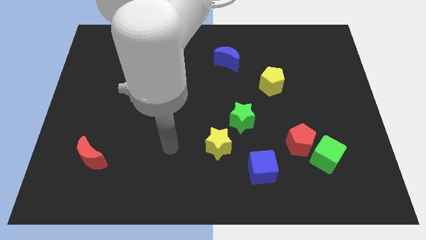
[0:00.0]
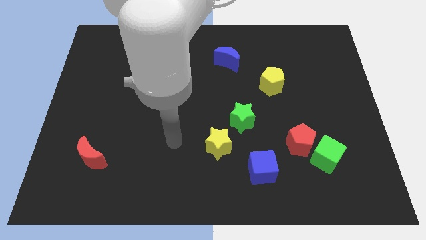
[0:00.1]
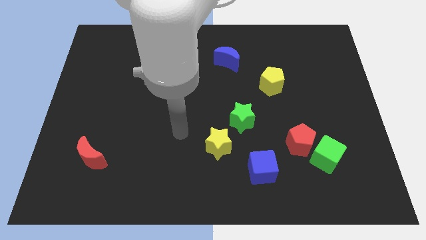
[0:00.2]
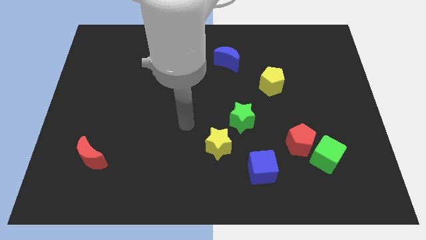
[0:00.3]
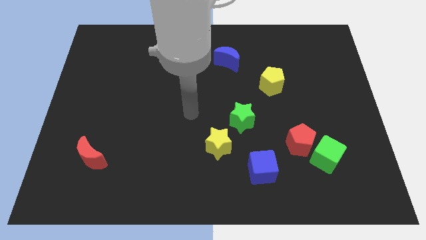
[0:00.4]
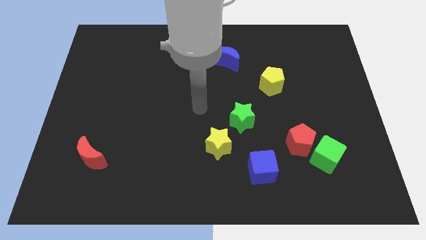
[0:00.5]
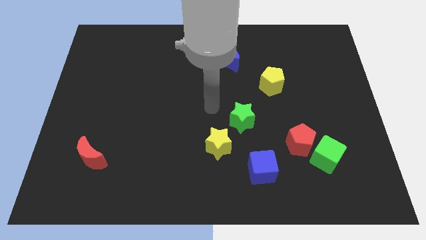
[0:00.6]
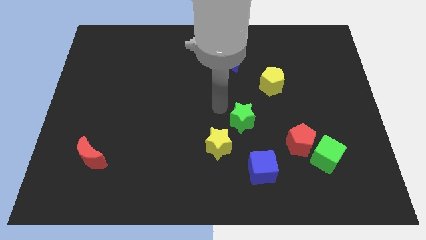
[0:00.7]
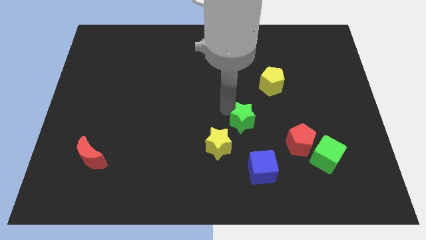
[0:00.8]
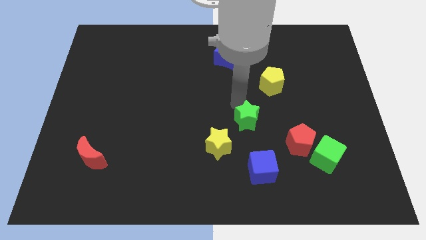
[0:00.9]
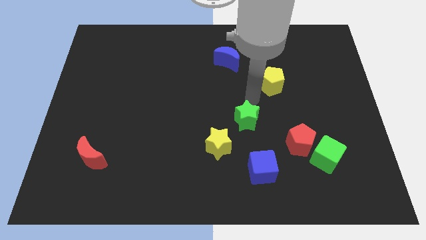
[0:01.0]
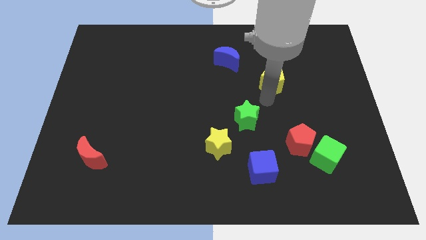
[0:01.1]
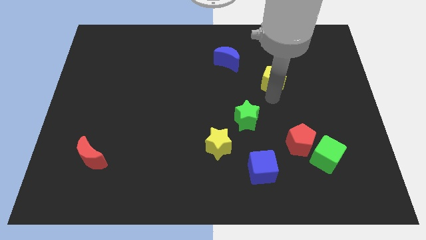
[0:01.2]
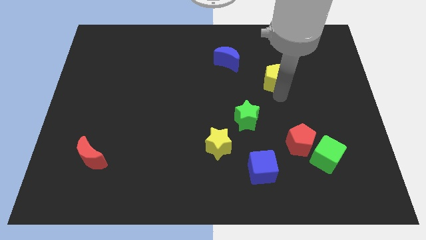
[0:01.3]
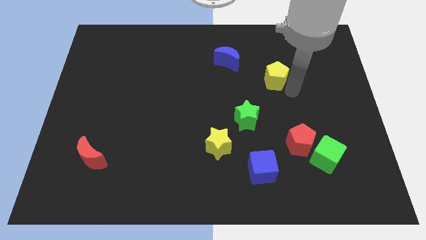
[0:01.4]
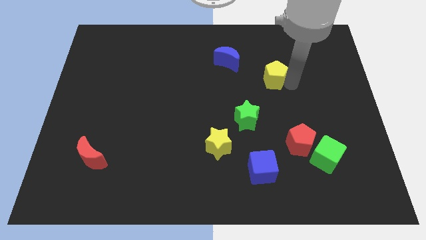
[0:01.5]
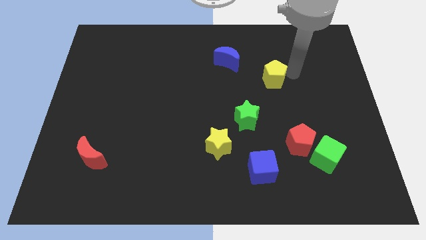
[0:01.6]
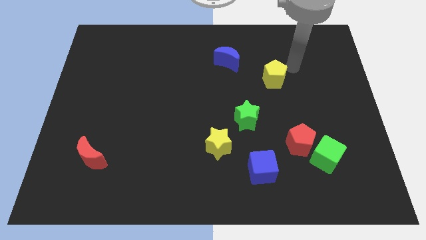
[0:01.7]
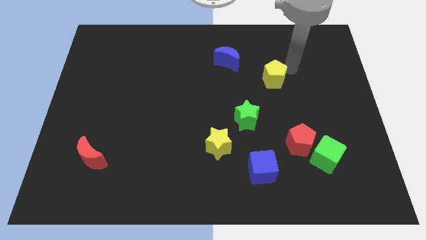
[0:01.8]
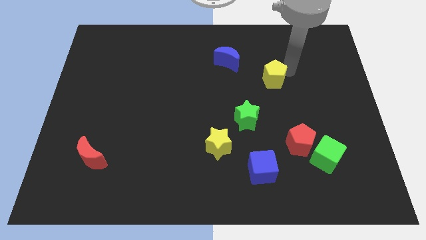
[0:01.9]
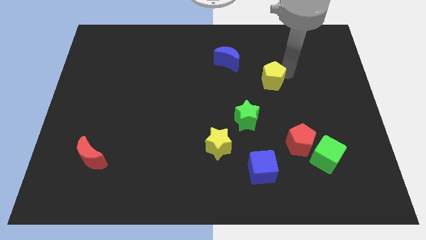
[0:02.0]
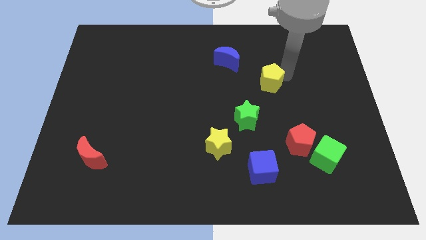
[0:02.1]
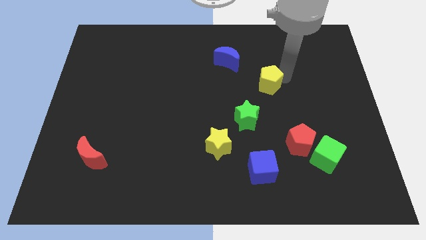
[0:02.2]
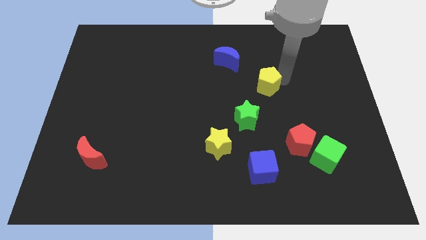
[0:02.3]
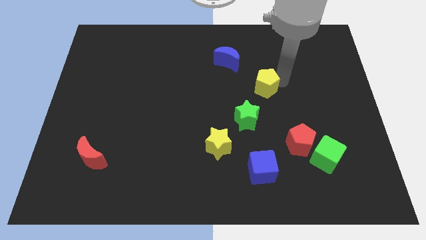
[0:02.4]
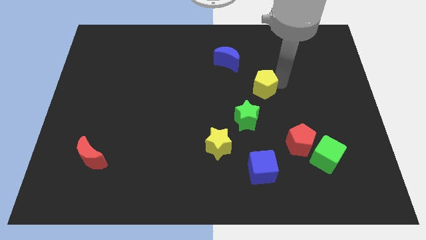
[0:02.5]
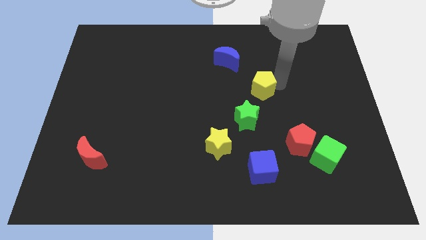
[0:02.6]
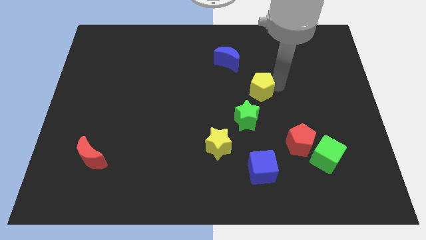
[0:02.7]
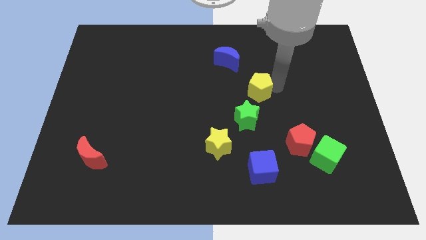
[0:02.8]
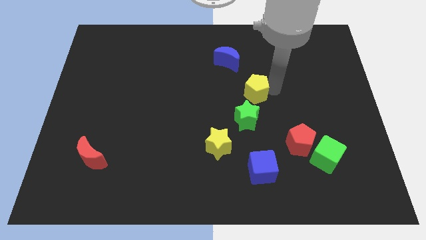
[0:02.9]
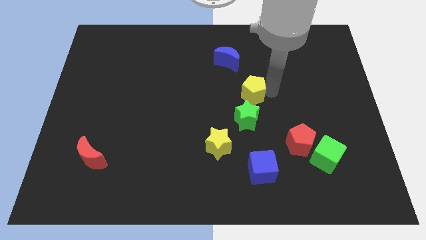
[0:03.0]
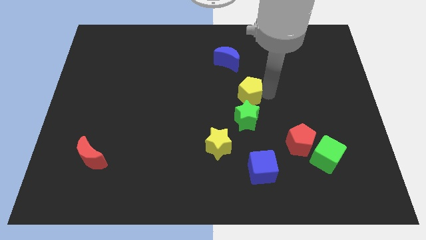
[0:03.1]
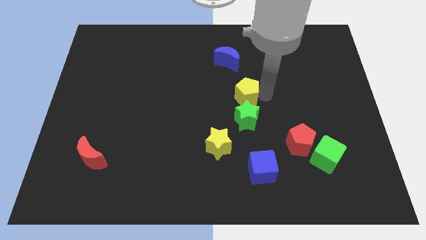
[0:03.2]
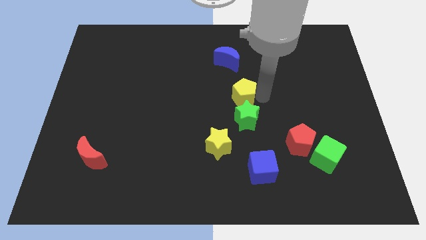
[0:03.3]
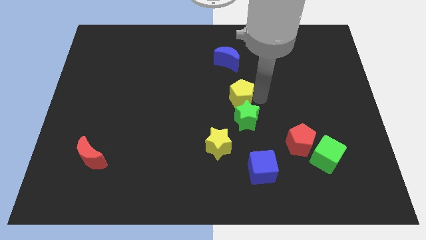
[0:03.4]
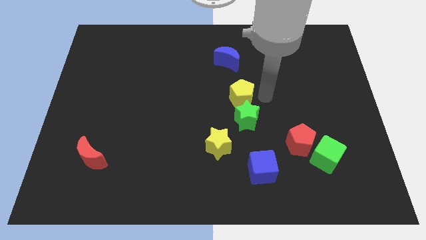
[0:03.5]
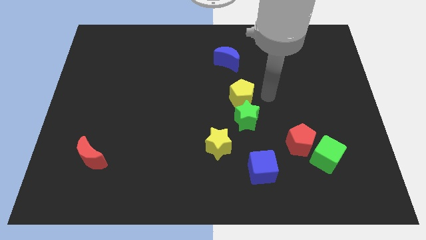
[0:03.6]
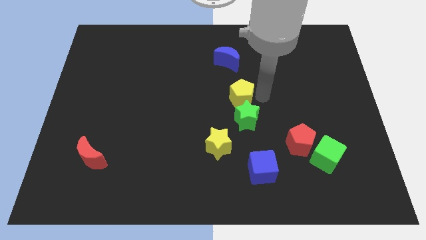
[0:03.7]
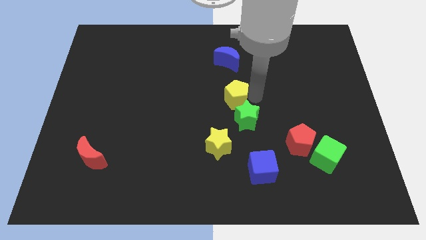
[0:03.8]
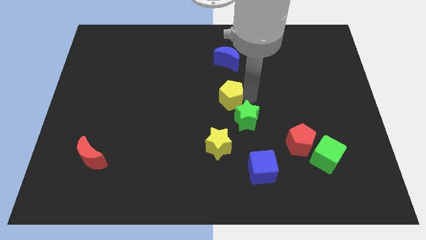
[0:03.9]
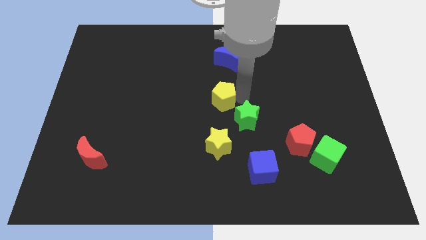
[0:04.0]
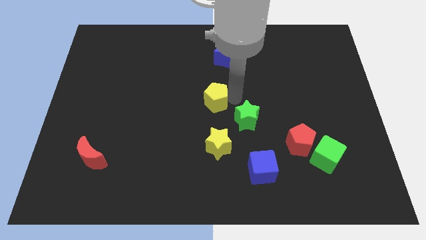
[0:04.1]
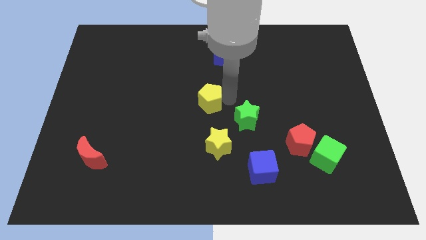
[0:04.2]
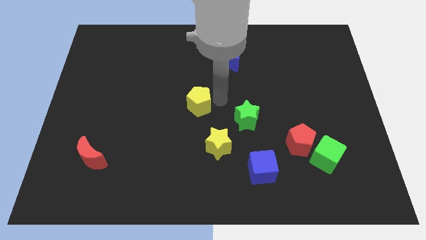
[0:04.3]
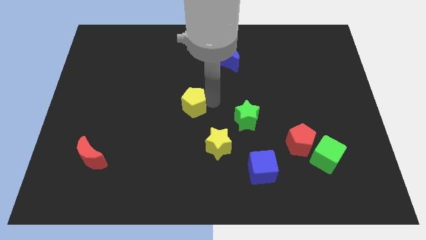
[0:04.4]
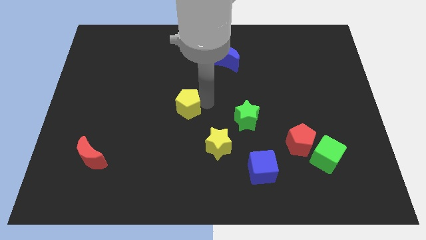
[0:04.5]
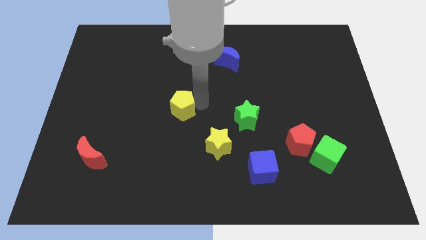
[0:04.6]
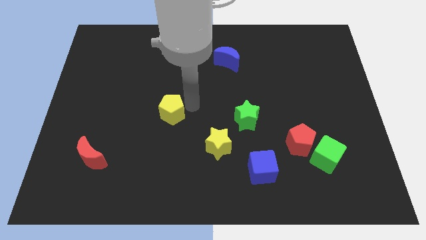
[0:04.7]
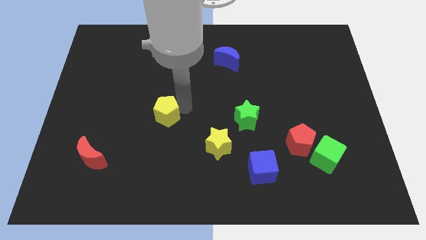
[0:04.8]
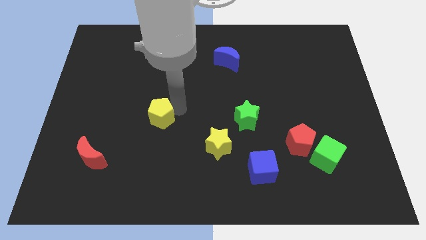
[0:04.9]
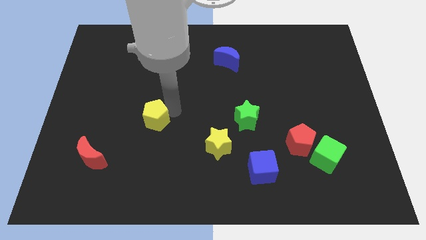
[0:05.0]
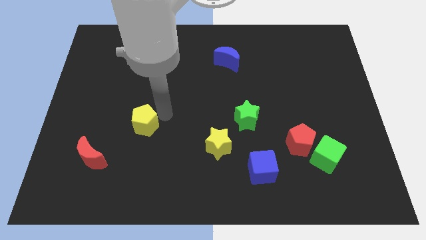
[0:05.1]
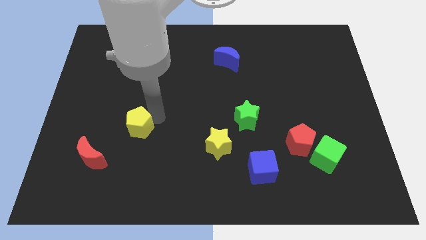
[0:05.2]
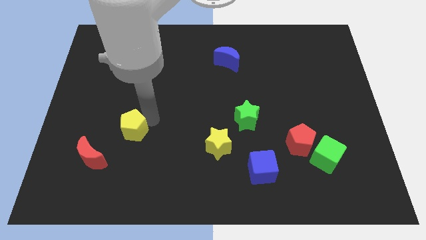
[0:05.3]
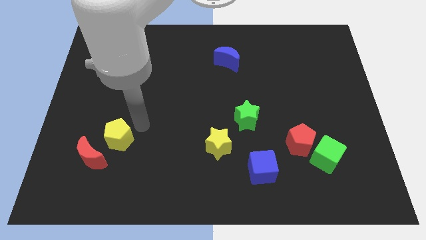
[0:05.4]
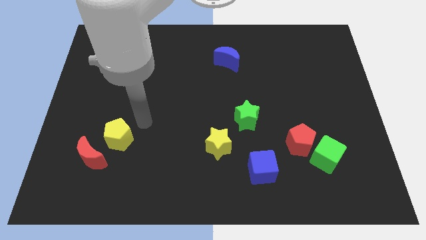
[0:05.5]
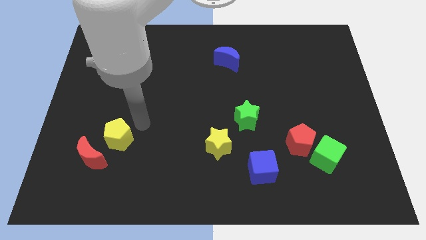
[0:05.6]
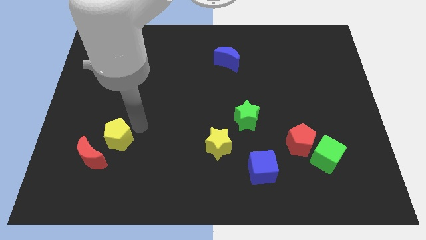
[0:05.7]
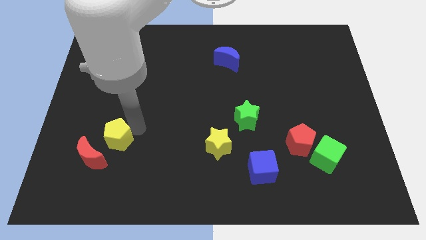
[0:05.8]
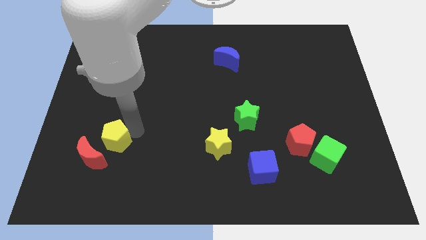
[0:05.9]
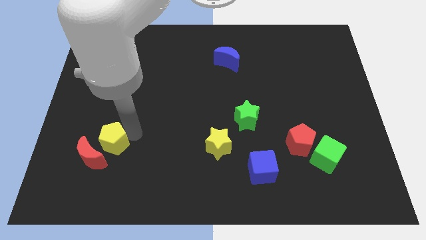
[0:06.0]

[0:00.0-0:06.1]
put the yellow pentagon to the red moon

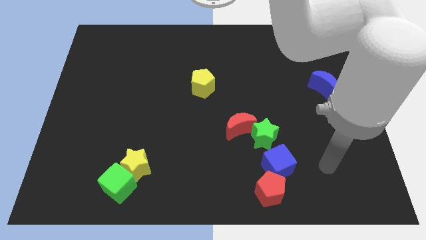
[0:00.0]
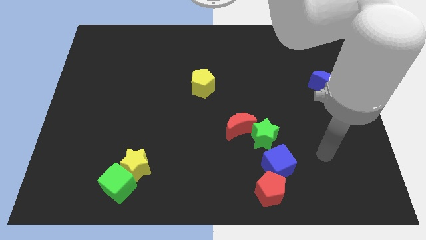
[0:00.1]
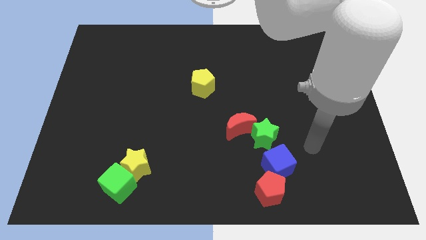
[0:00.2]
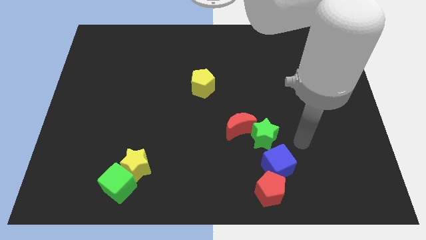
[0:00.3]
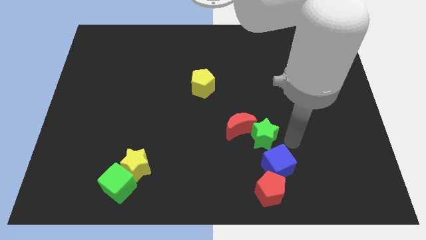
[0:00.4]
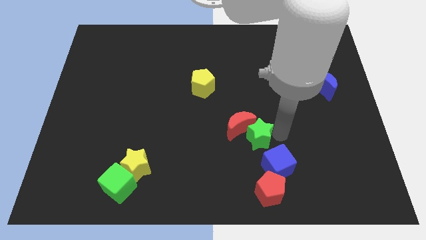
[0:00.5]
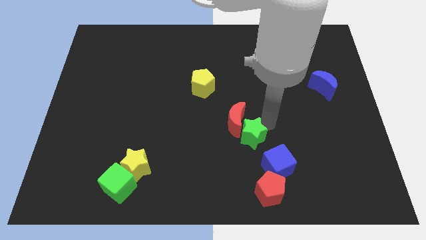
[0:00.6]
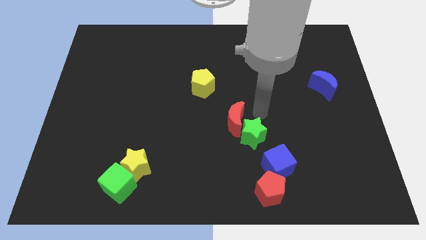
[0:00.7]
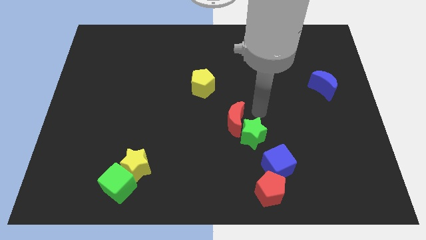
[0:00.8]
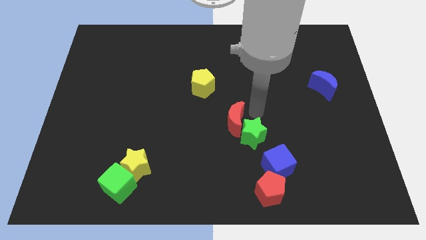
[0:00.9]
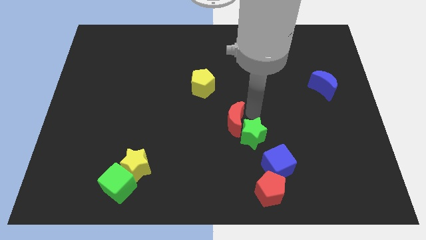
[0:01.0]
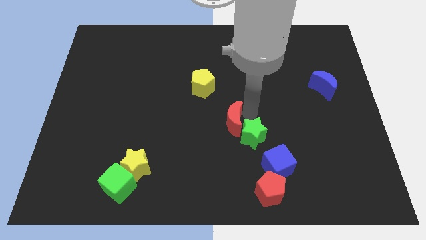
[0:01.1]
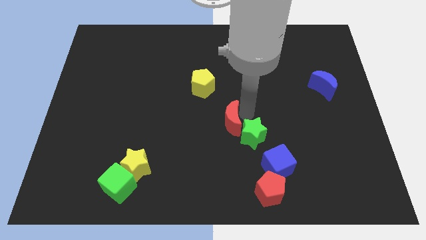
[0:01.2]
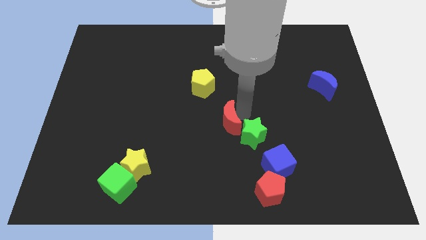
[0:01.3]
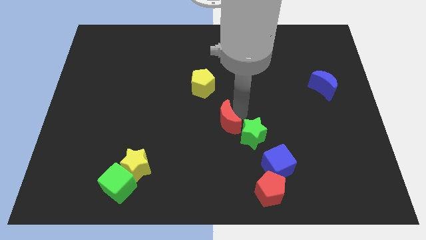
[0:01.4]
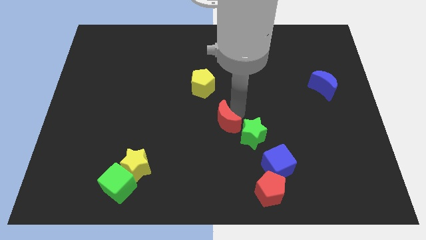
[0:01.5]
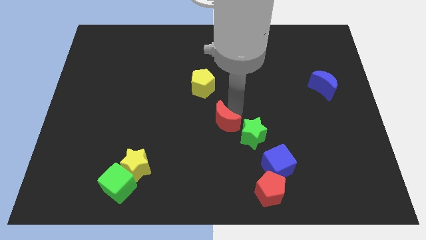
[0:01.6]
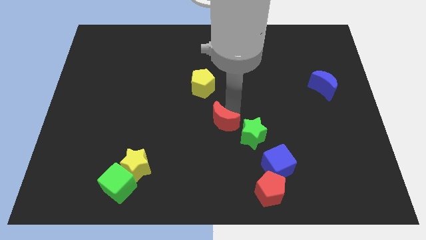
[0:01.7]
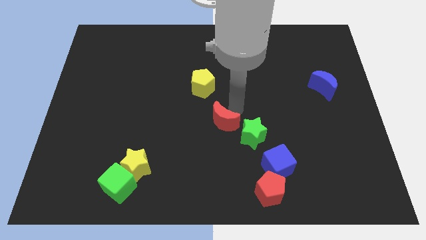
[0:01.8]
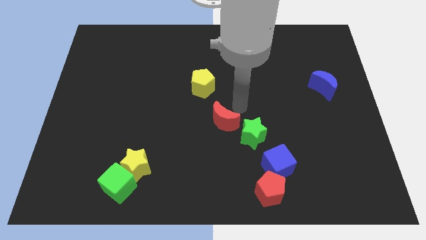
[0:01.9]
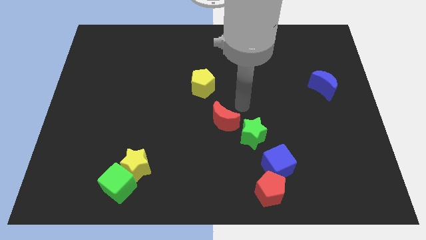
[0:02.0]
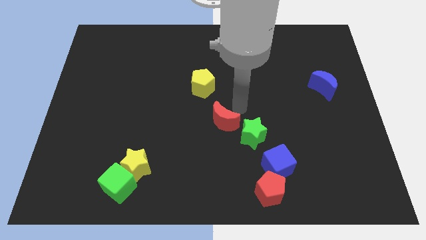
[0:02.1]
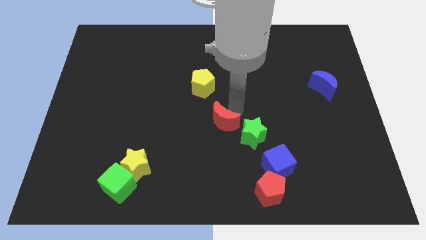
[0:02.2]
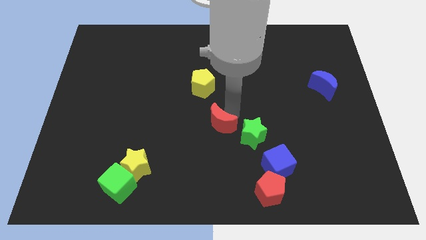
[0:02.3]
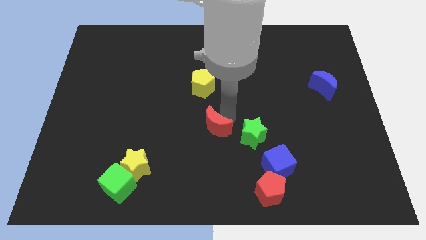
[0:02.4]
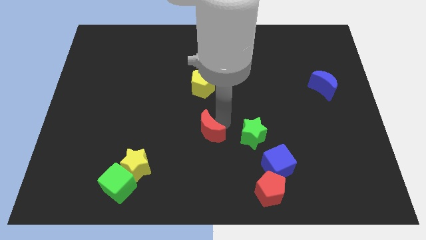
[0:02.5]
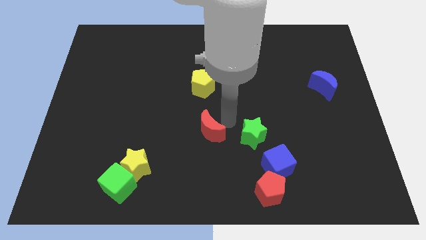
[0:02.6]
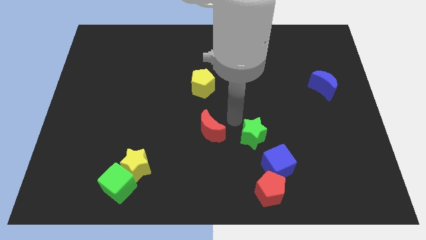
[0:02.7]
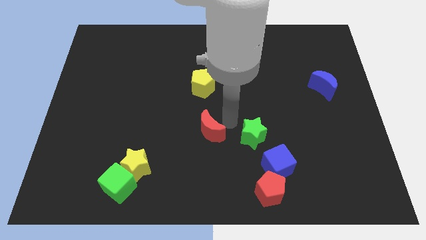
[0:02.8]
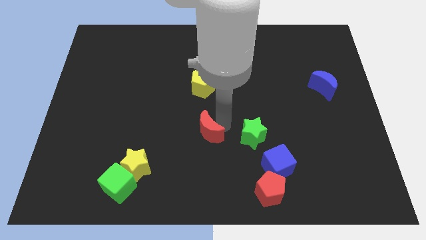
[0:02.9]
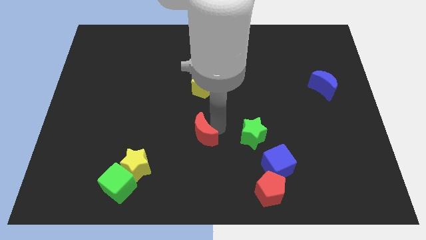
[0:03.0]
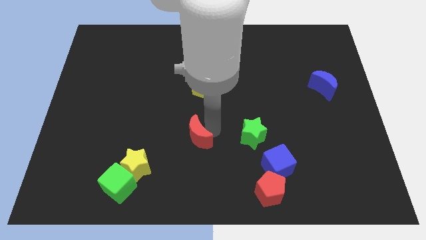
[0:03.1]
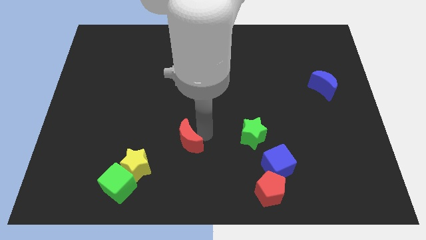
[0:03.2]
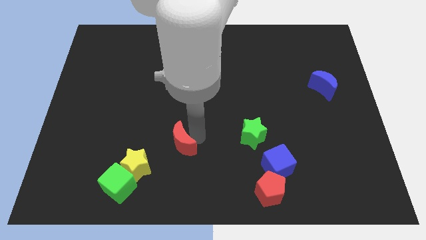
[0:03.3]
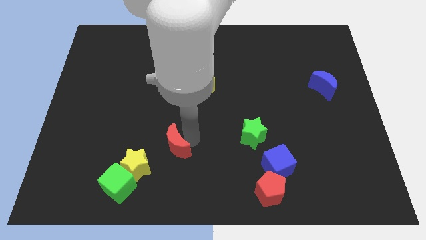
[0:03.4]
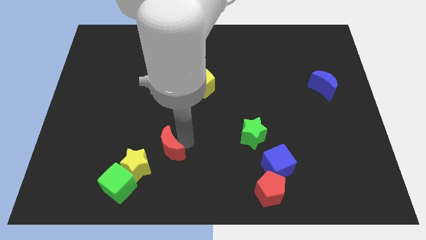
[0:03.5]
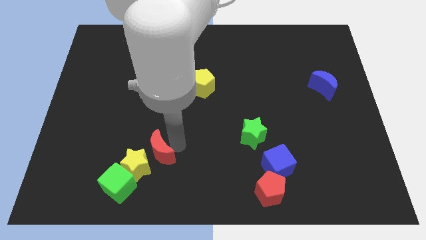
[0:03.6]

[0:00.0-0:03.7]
move the red moon to the yellow star
